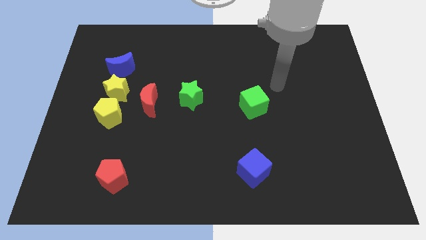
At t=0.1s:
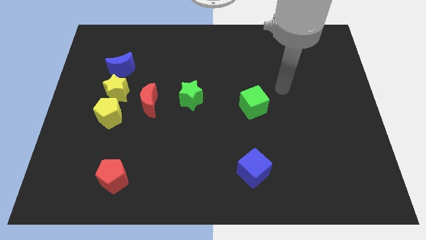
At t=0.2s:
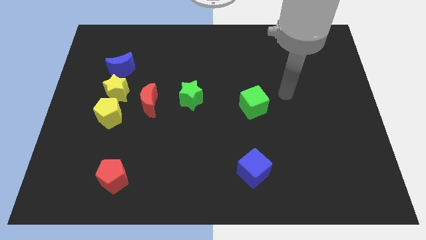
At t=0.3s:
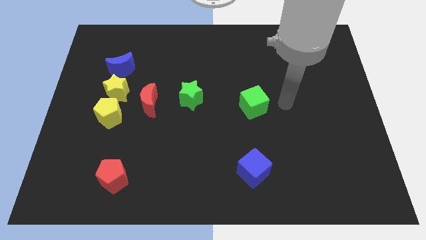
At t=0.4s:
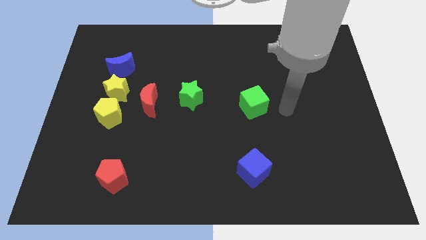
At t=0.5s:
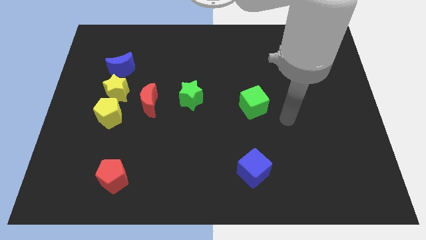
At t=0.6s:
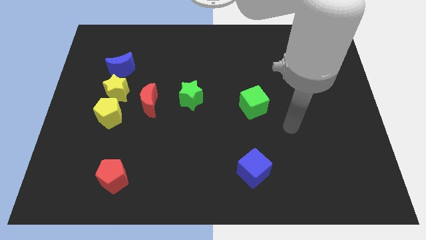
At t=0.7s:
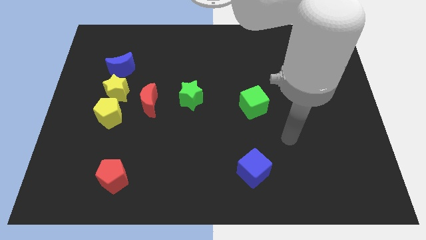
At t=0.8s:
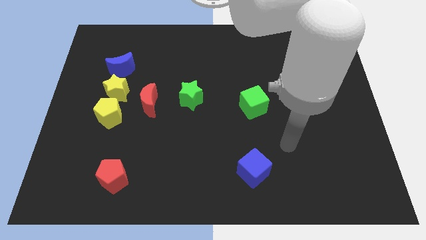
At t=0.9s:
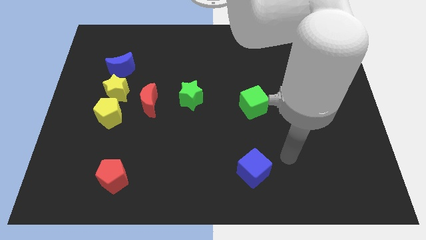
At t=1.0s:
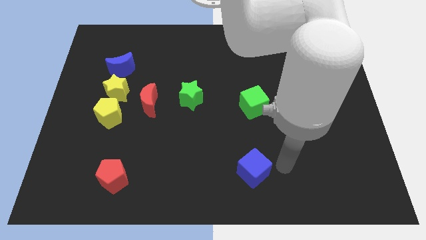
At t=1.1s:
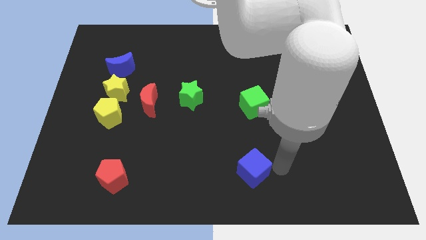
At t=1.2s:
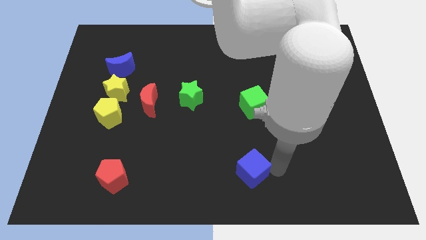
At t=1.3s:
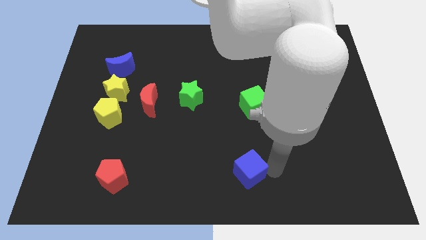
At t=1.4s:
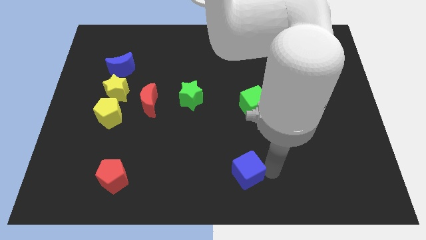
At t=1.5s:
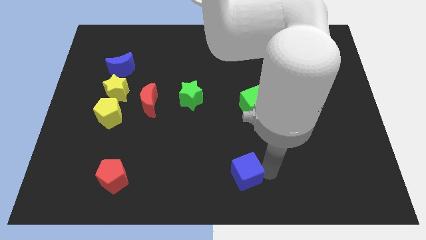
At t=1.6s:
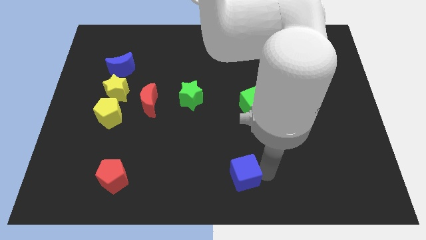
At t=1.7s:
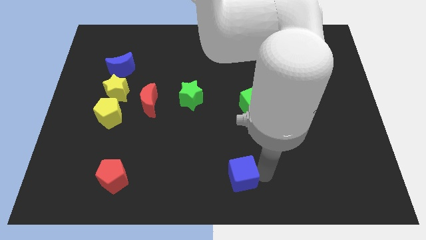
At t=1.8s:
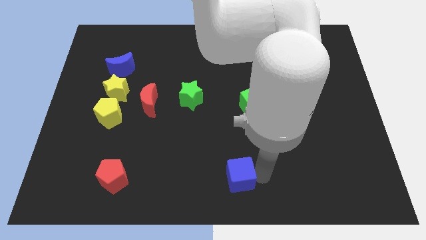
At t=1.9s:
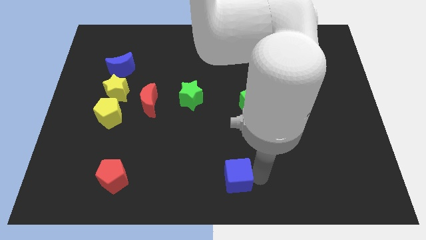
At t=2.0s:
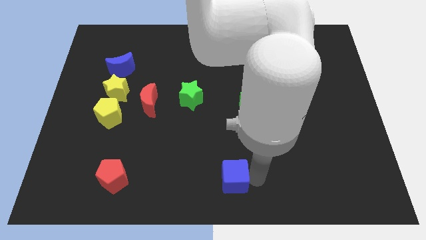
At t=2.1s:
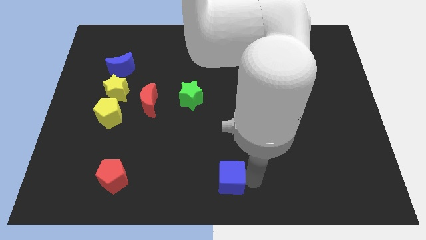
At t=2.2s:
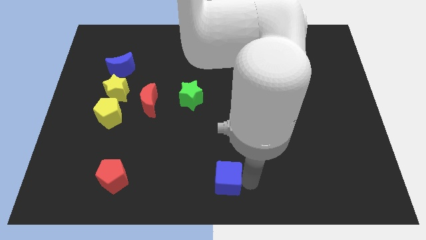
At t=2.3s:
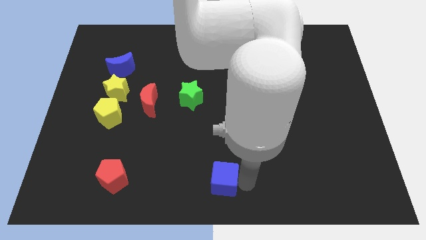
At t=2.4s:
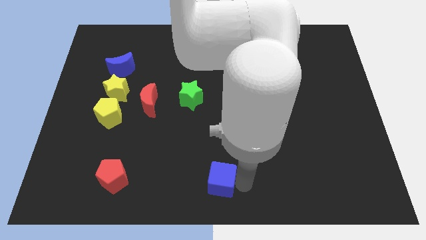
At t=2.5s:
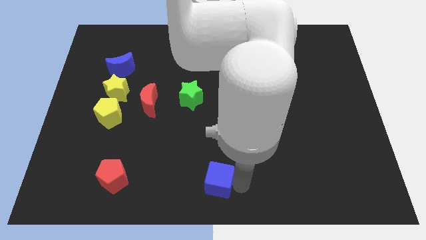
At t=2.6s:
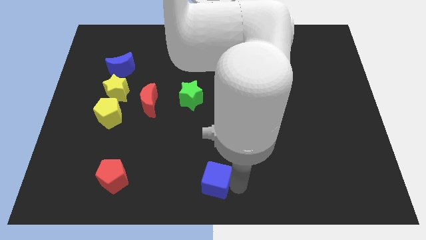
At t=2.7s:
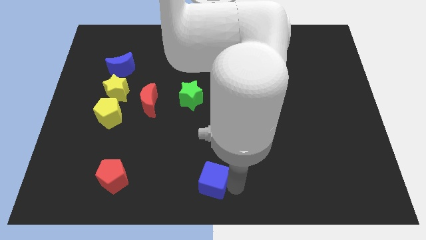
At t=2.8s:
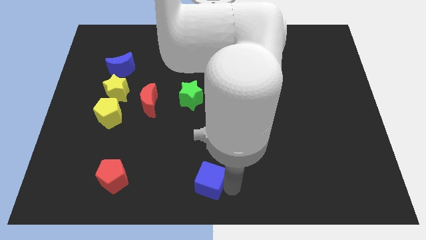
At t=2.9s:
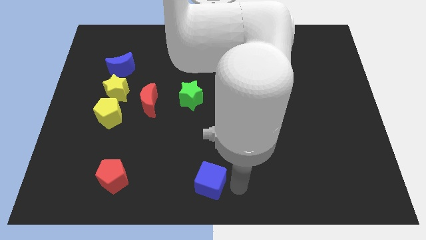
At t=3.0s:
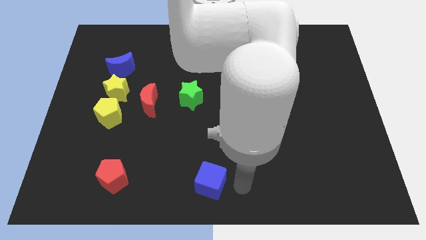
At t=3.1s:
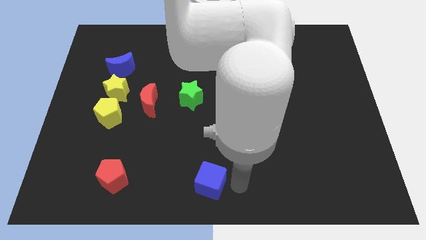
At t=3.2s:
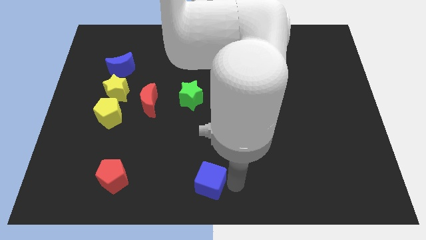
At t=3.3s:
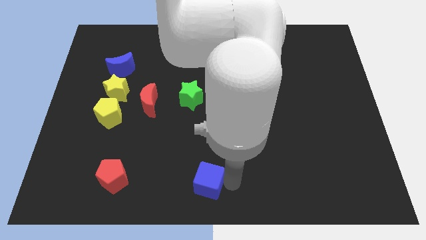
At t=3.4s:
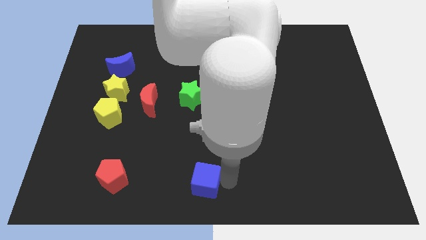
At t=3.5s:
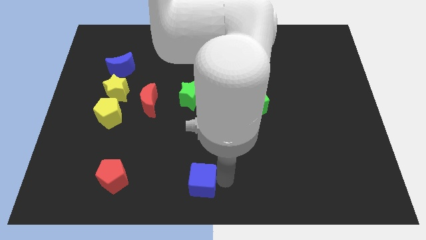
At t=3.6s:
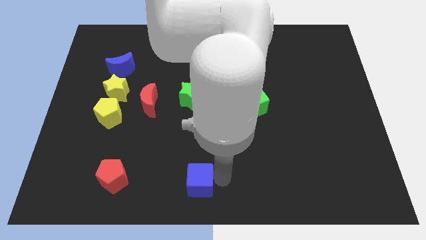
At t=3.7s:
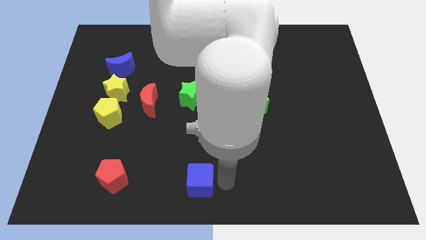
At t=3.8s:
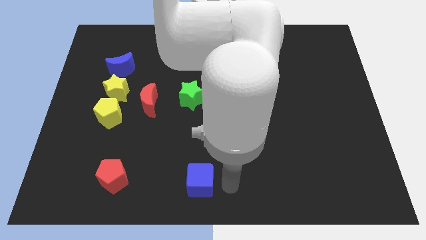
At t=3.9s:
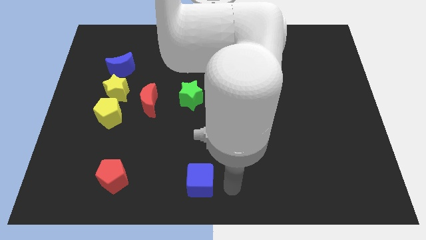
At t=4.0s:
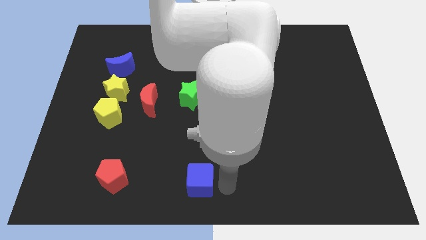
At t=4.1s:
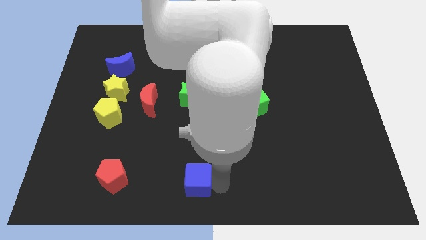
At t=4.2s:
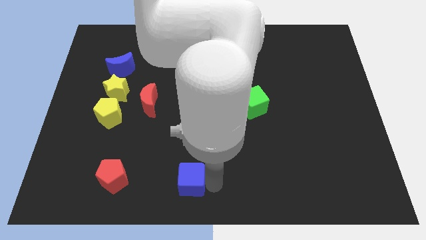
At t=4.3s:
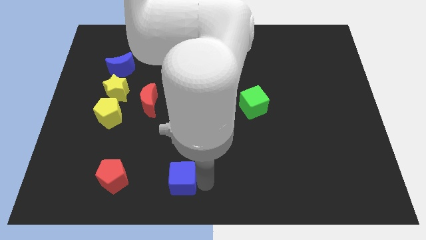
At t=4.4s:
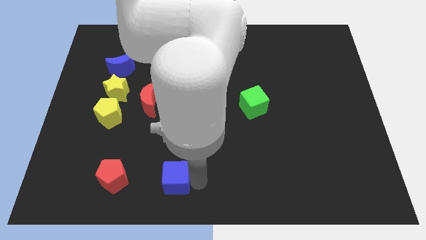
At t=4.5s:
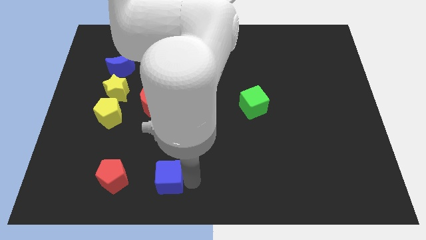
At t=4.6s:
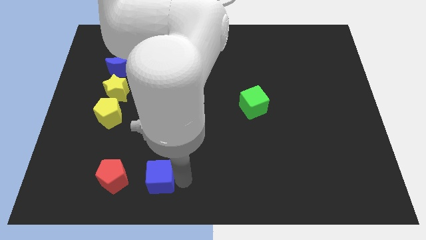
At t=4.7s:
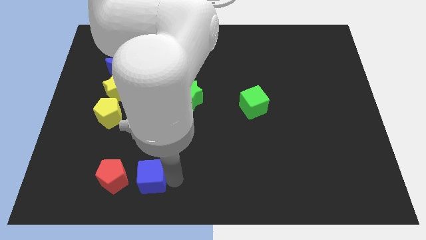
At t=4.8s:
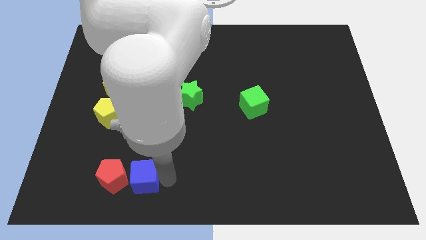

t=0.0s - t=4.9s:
move the blue cube close to the red pentagon

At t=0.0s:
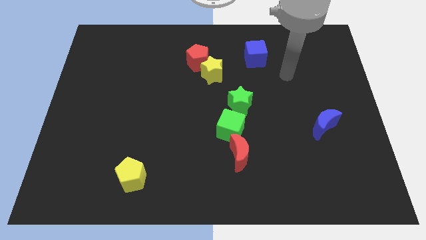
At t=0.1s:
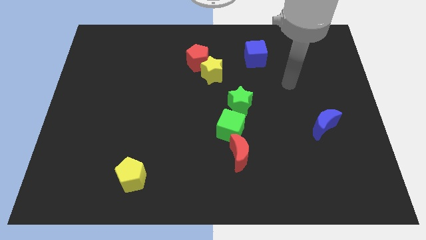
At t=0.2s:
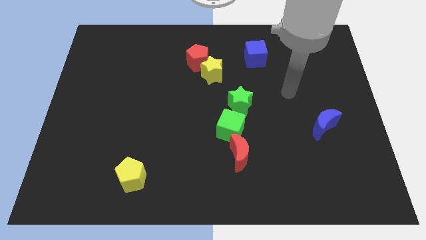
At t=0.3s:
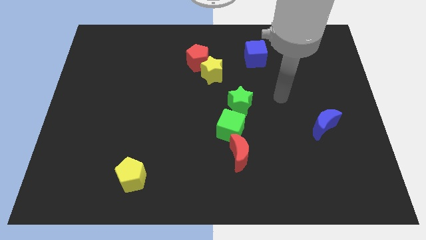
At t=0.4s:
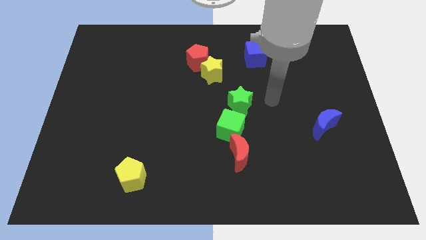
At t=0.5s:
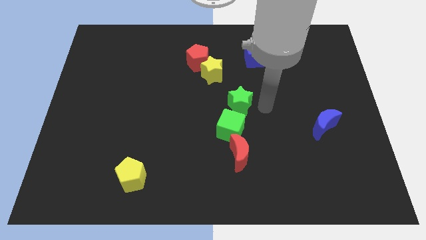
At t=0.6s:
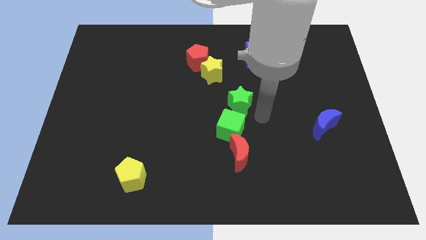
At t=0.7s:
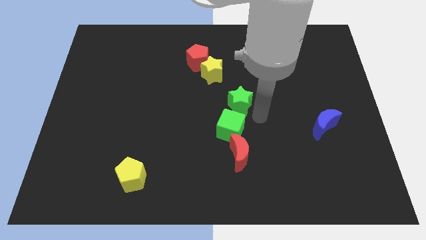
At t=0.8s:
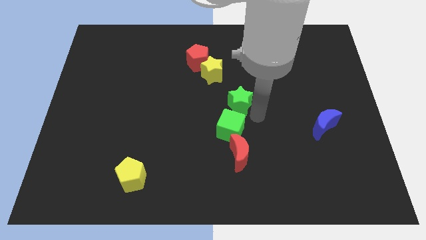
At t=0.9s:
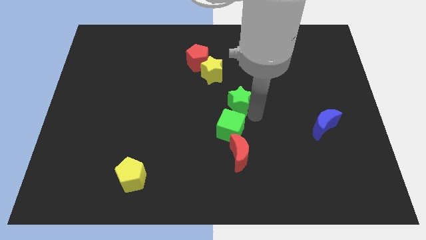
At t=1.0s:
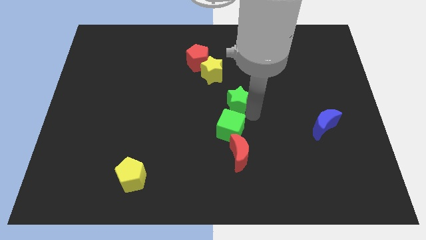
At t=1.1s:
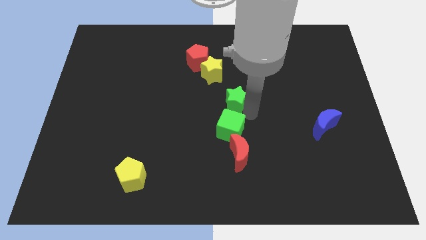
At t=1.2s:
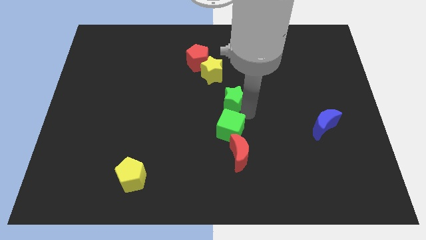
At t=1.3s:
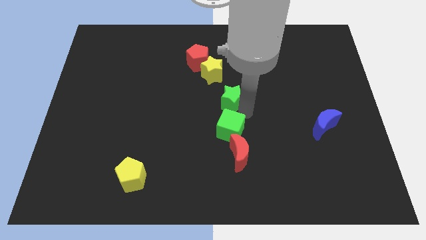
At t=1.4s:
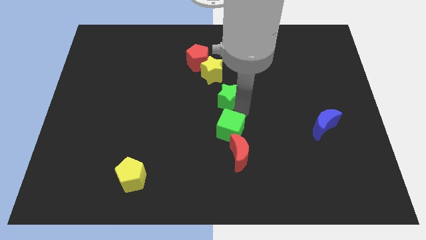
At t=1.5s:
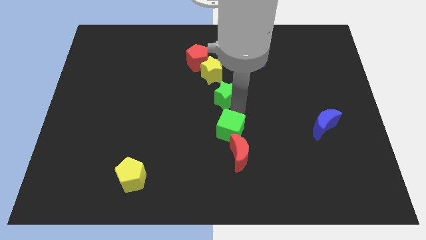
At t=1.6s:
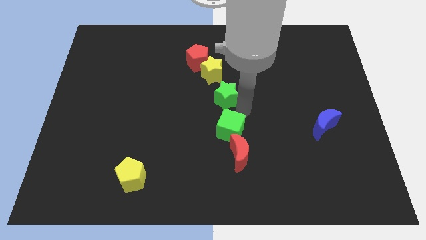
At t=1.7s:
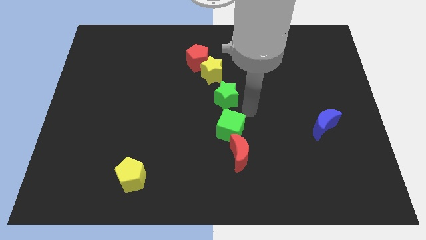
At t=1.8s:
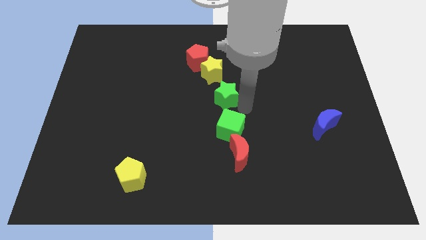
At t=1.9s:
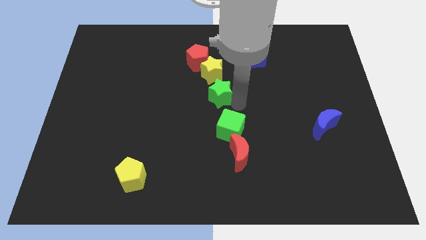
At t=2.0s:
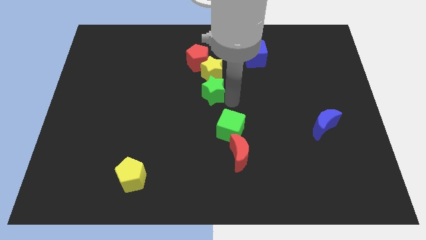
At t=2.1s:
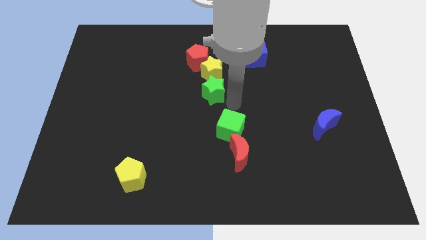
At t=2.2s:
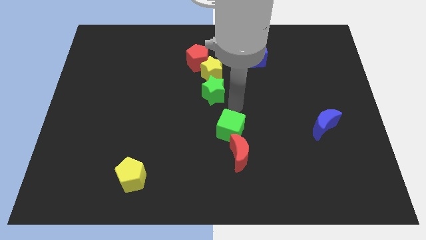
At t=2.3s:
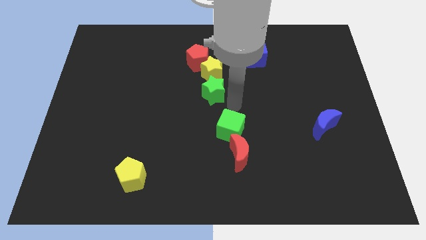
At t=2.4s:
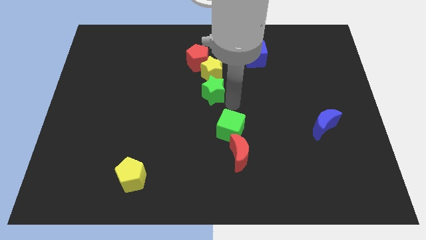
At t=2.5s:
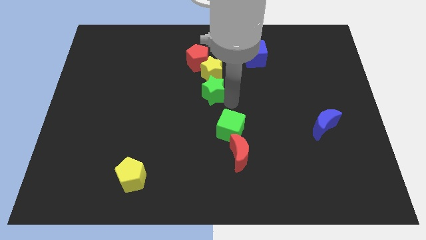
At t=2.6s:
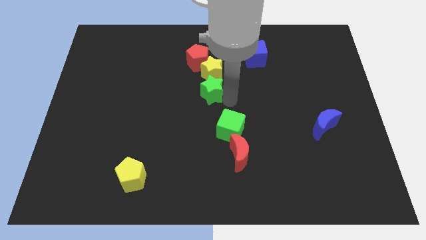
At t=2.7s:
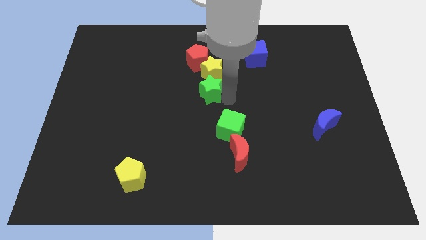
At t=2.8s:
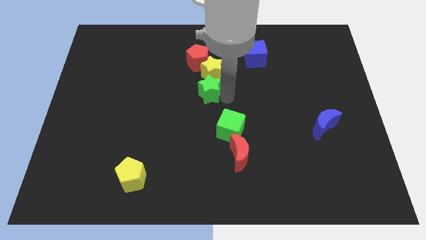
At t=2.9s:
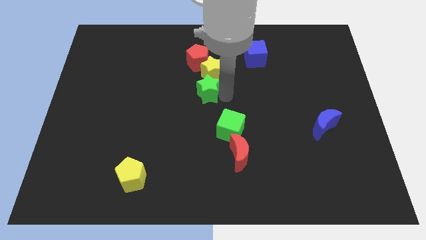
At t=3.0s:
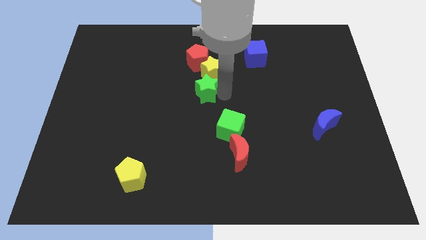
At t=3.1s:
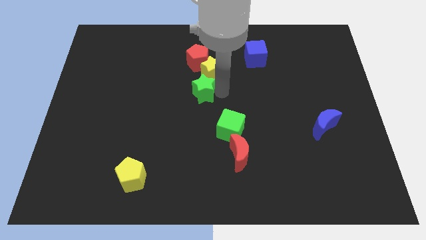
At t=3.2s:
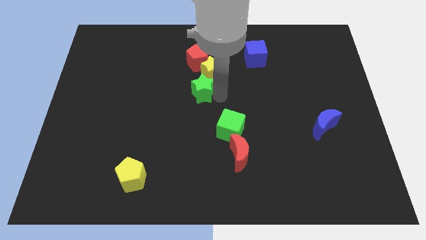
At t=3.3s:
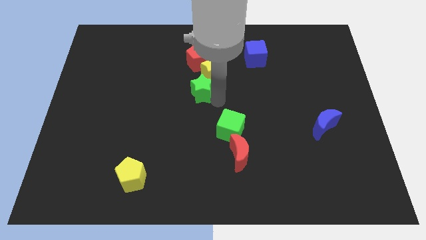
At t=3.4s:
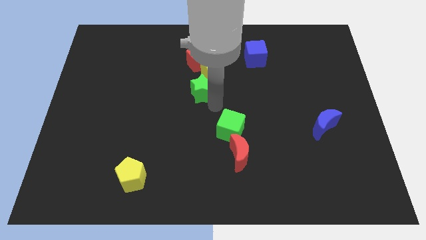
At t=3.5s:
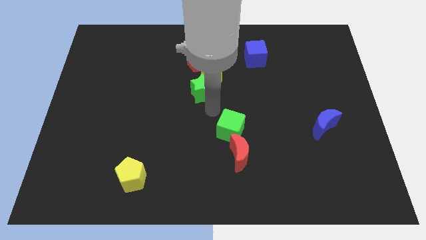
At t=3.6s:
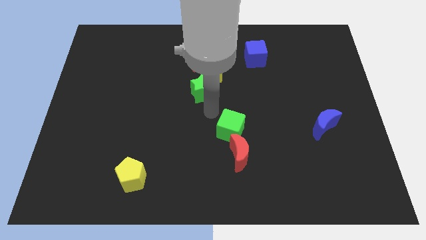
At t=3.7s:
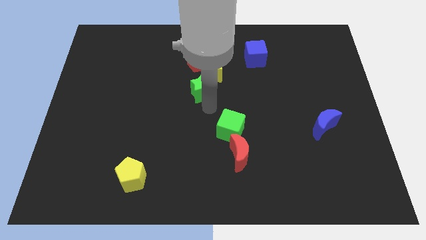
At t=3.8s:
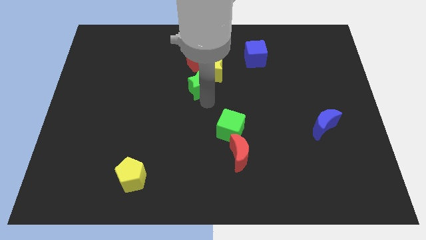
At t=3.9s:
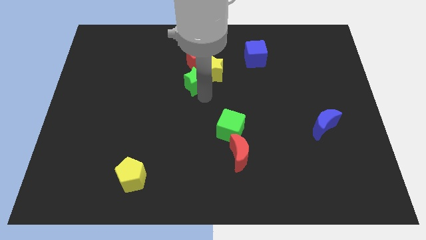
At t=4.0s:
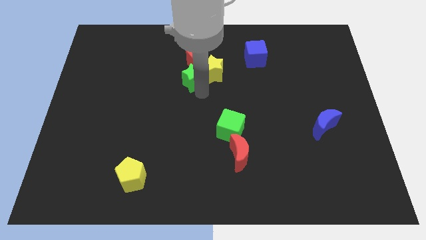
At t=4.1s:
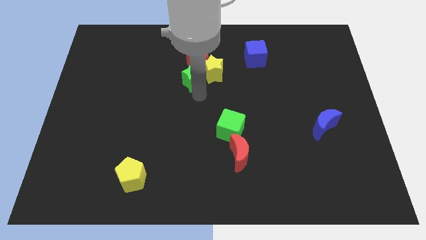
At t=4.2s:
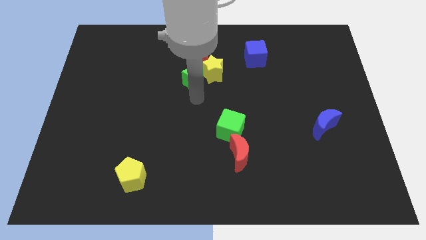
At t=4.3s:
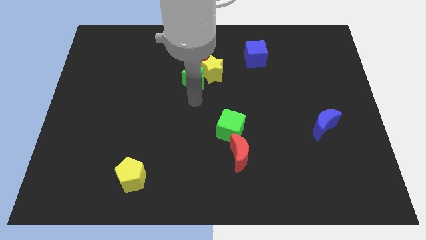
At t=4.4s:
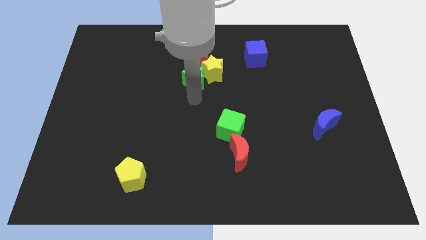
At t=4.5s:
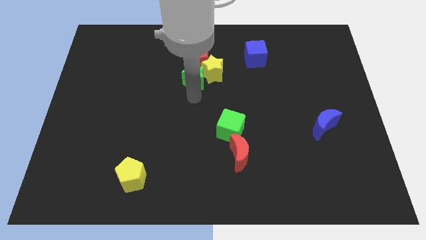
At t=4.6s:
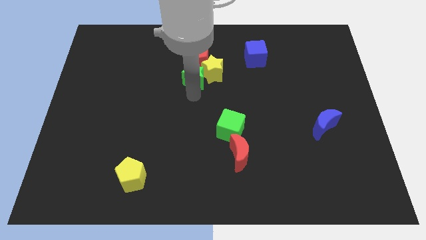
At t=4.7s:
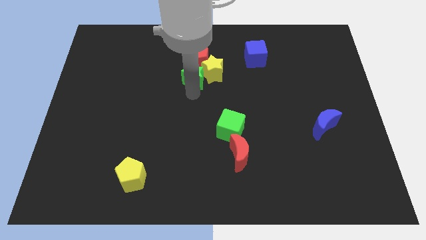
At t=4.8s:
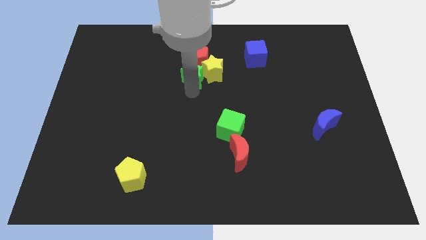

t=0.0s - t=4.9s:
push the green star close to the red pentagon
